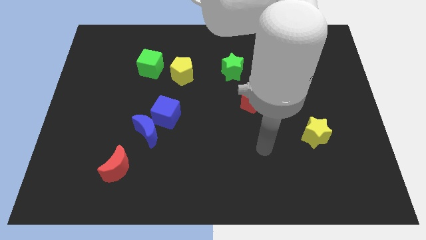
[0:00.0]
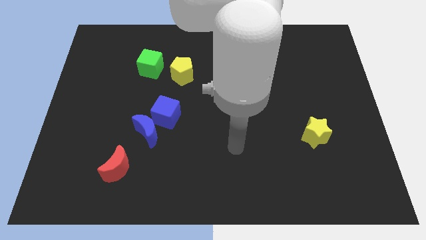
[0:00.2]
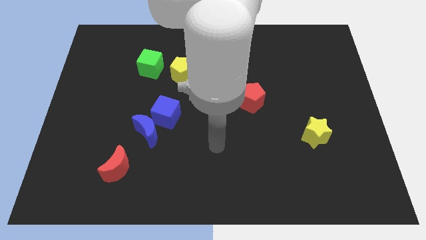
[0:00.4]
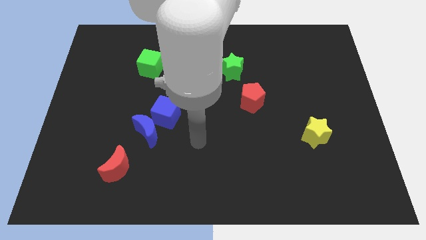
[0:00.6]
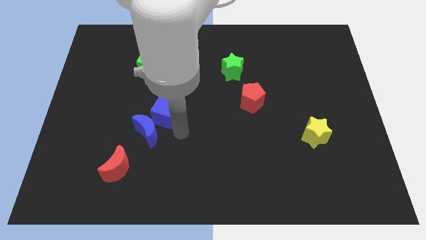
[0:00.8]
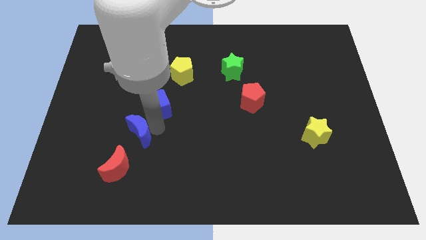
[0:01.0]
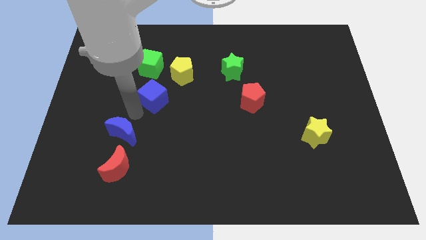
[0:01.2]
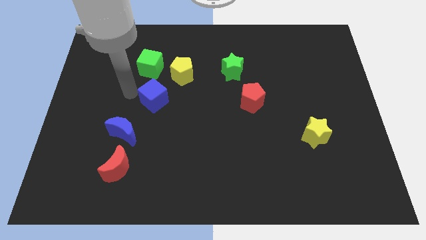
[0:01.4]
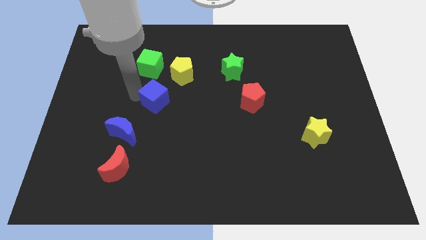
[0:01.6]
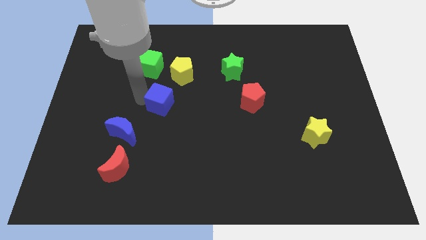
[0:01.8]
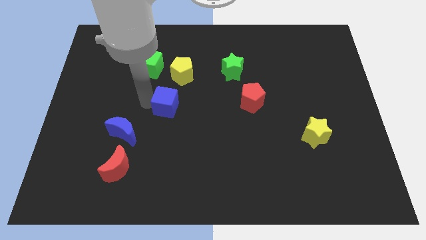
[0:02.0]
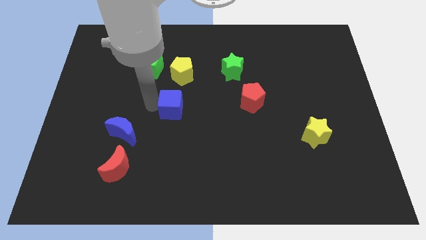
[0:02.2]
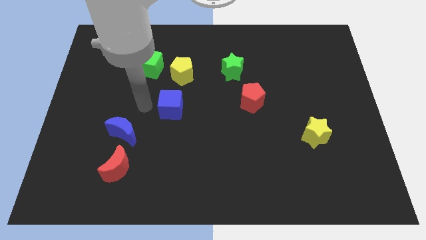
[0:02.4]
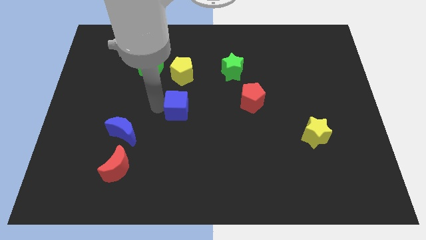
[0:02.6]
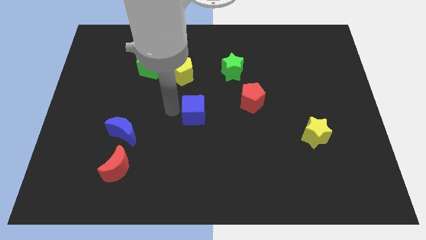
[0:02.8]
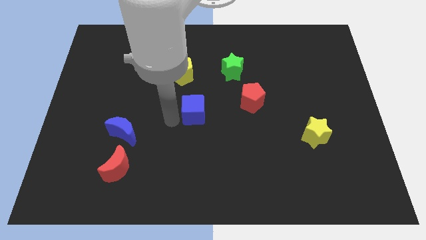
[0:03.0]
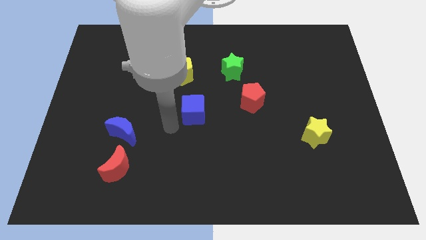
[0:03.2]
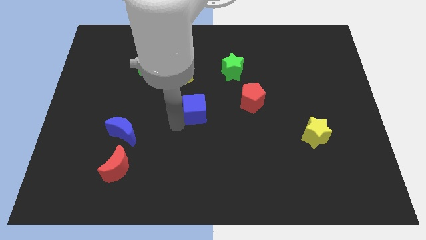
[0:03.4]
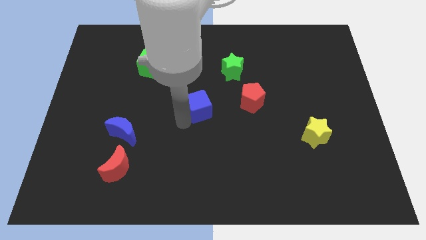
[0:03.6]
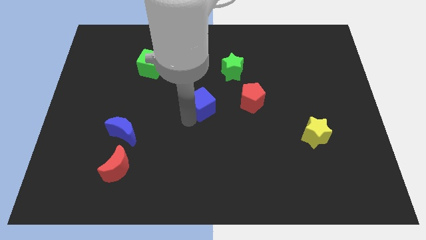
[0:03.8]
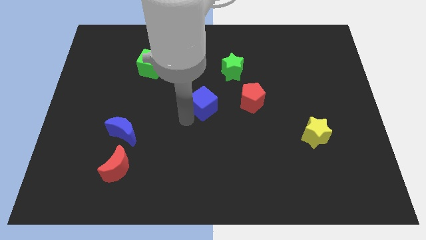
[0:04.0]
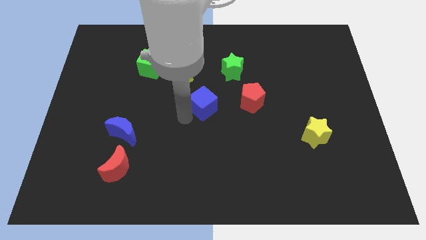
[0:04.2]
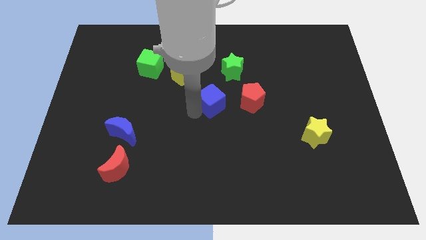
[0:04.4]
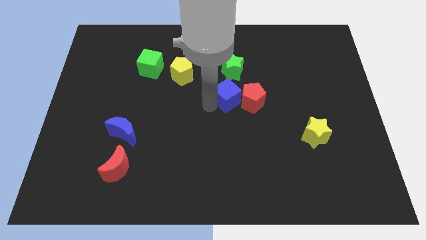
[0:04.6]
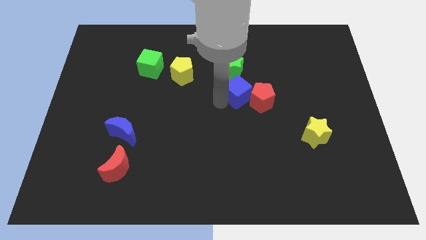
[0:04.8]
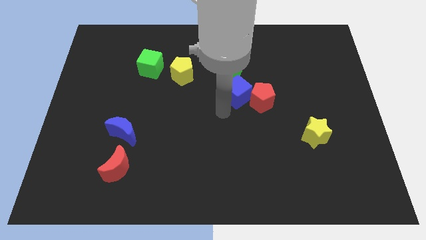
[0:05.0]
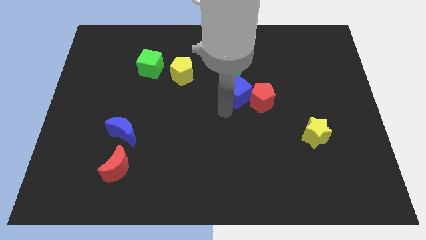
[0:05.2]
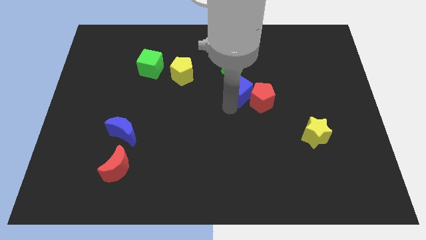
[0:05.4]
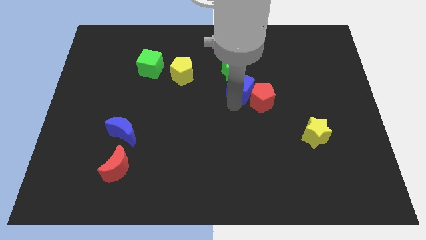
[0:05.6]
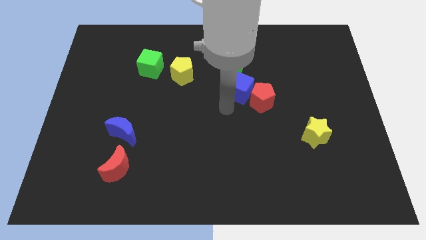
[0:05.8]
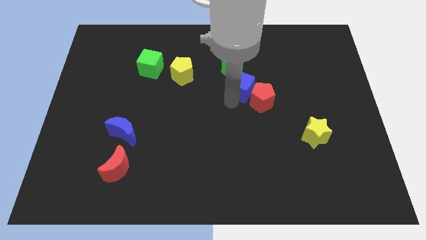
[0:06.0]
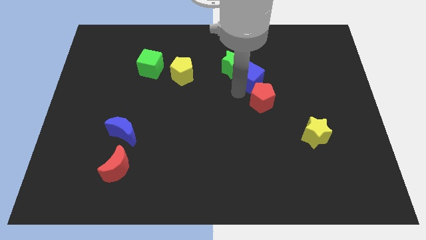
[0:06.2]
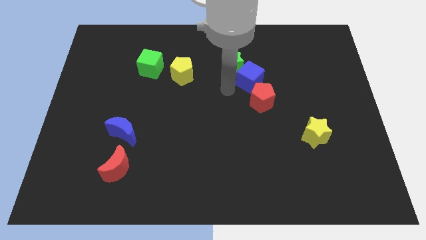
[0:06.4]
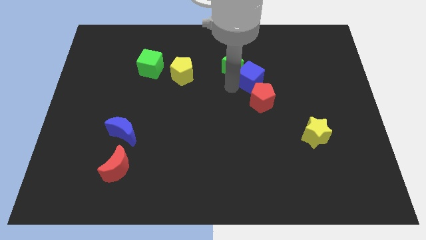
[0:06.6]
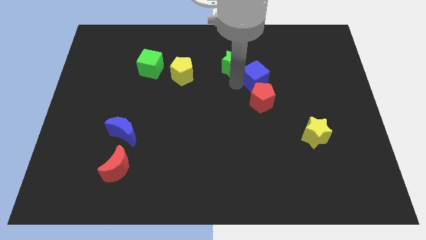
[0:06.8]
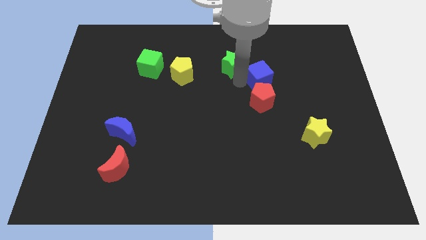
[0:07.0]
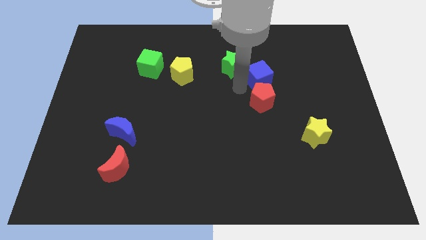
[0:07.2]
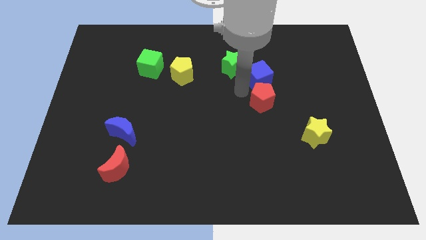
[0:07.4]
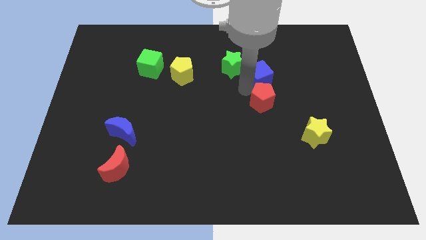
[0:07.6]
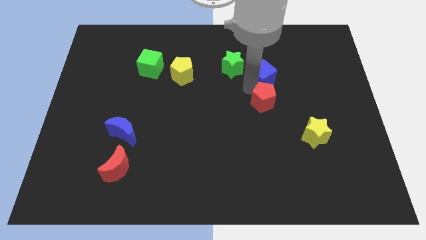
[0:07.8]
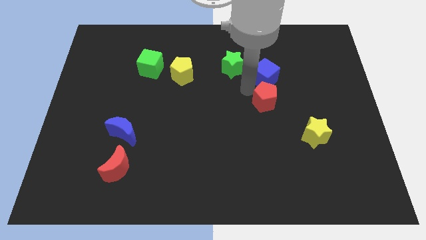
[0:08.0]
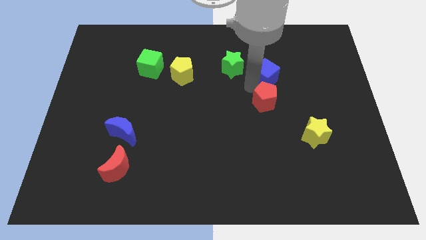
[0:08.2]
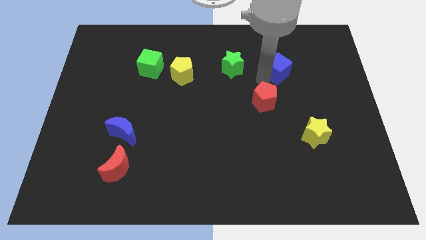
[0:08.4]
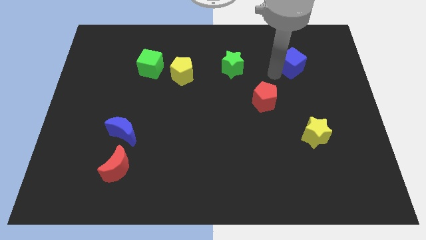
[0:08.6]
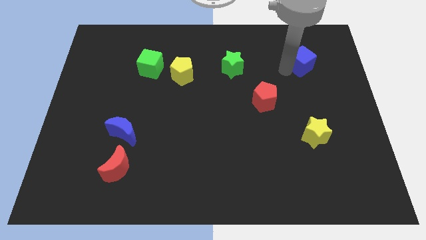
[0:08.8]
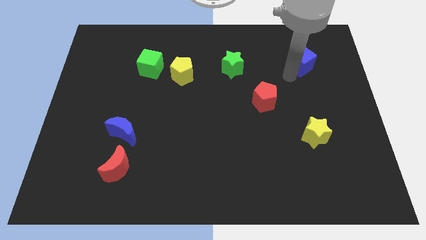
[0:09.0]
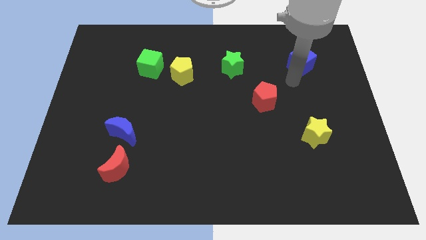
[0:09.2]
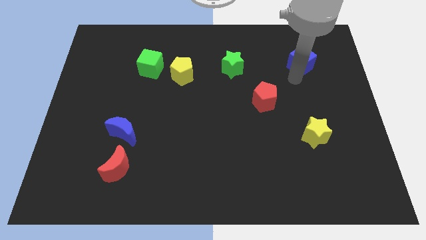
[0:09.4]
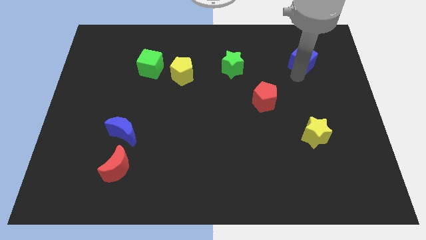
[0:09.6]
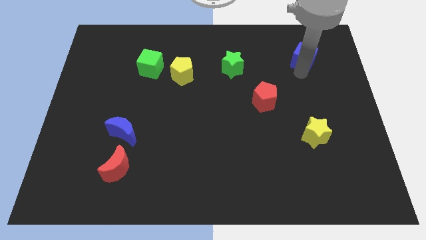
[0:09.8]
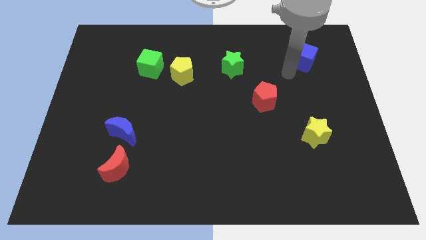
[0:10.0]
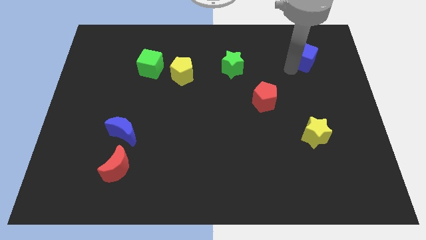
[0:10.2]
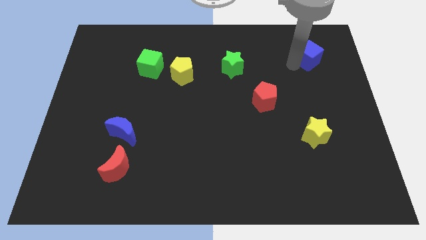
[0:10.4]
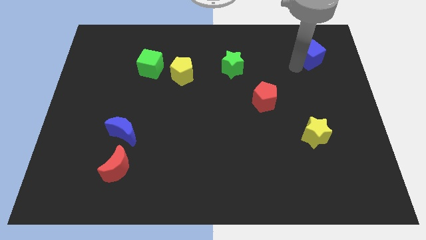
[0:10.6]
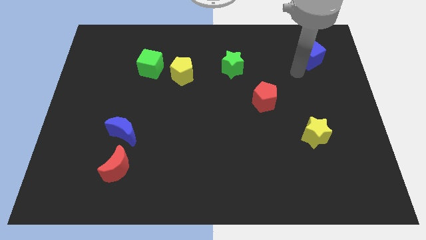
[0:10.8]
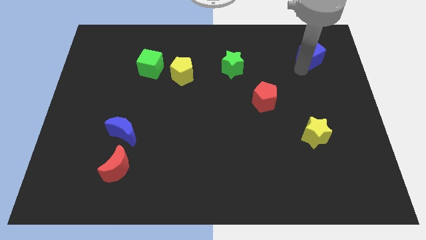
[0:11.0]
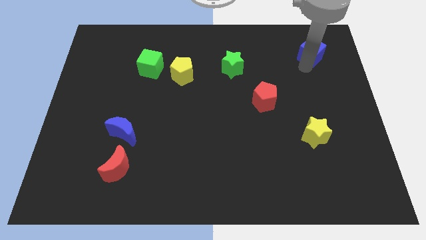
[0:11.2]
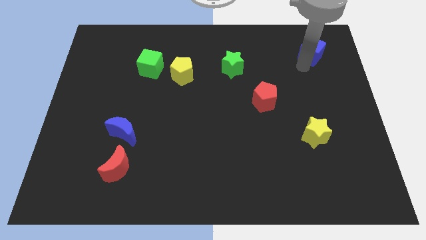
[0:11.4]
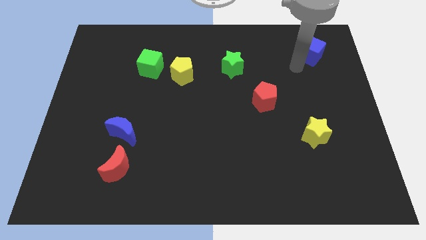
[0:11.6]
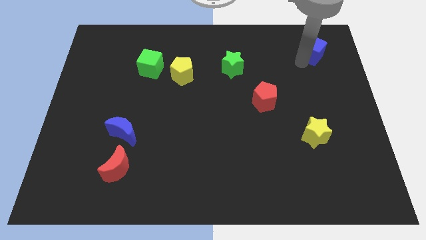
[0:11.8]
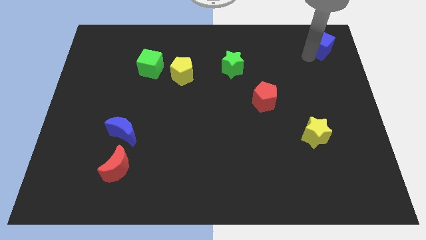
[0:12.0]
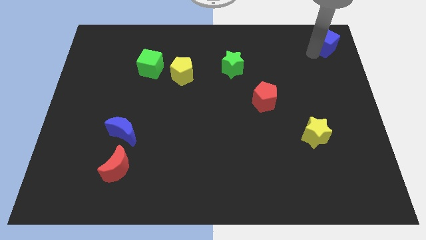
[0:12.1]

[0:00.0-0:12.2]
slide the blue cube to the top right of the board

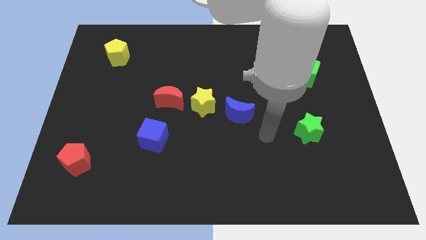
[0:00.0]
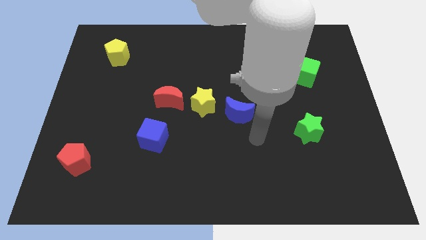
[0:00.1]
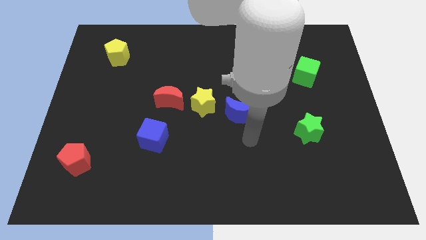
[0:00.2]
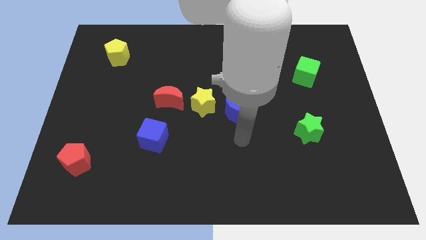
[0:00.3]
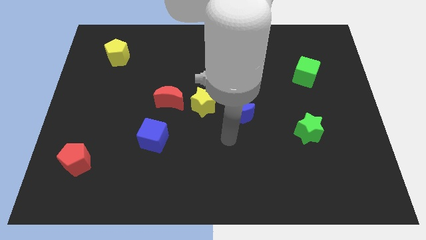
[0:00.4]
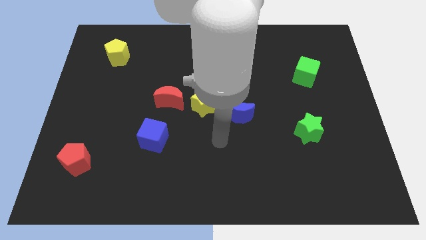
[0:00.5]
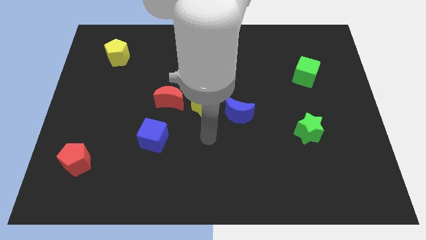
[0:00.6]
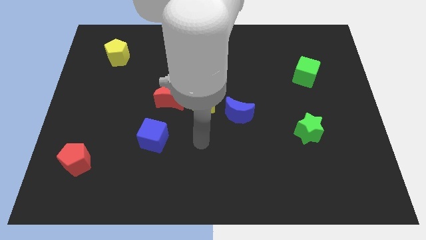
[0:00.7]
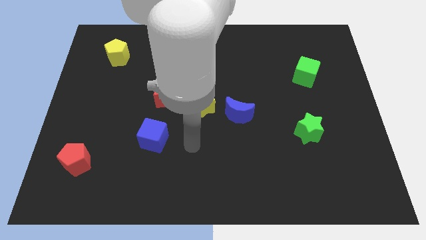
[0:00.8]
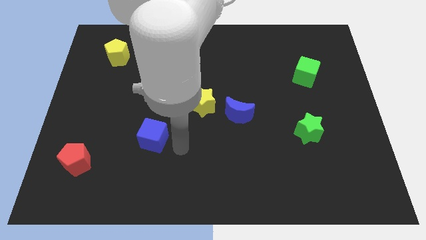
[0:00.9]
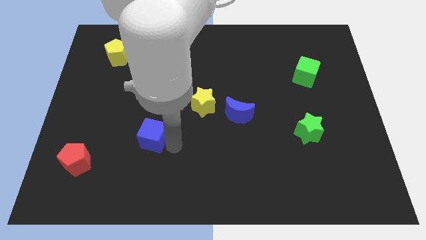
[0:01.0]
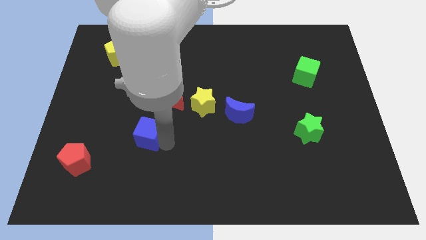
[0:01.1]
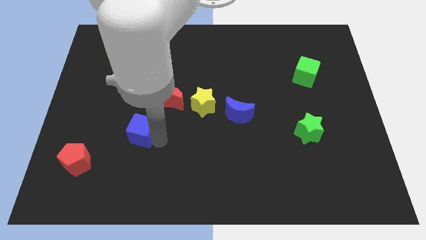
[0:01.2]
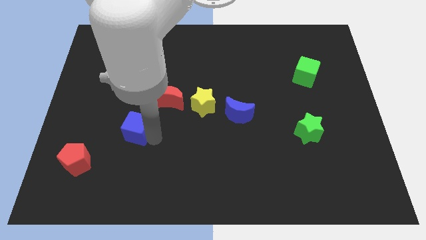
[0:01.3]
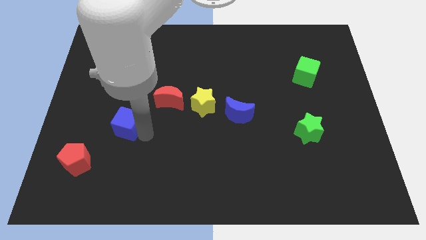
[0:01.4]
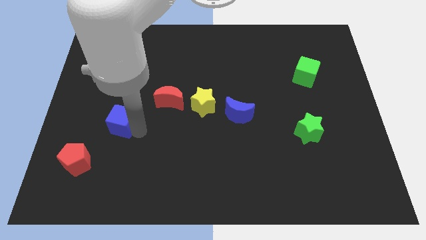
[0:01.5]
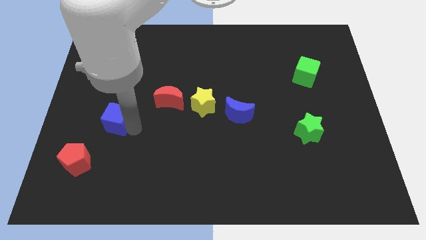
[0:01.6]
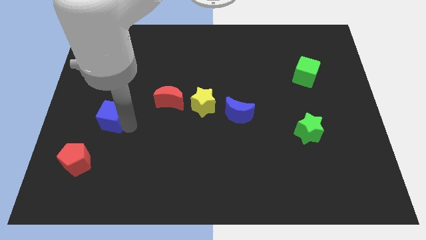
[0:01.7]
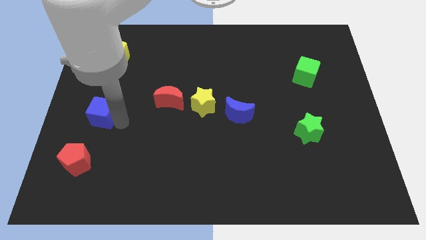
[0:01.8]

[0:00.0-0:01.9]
put the blue cube to the left side
